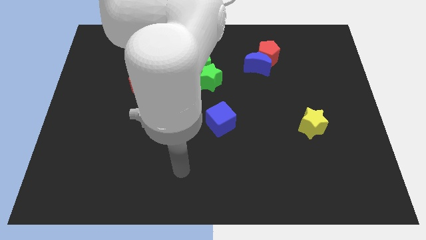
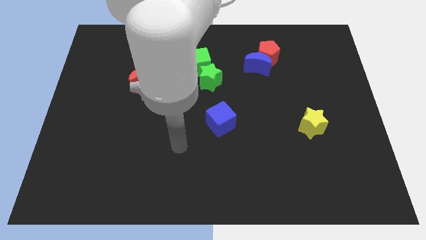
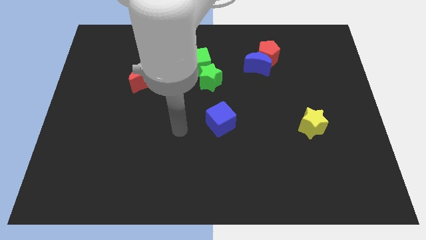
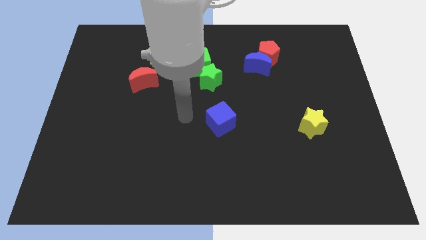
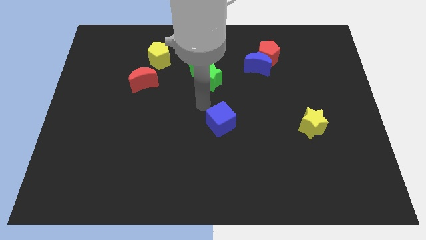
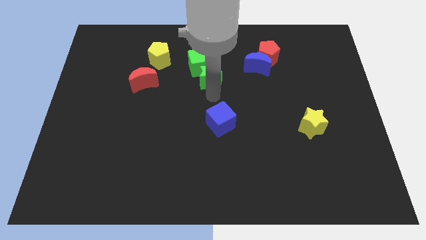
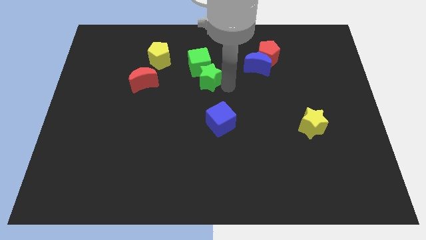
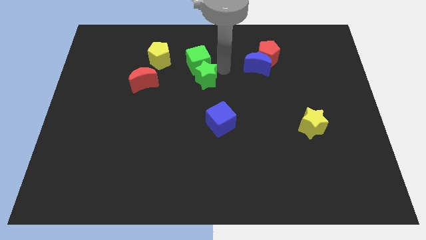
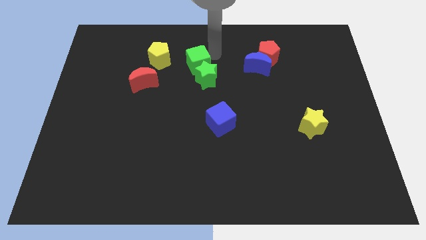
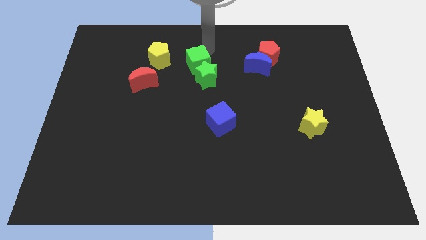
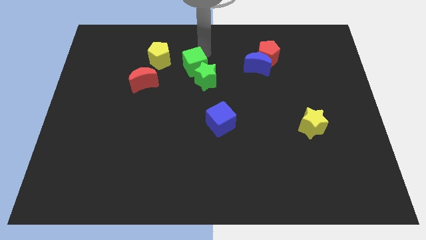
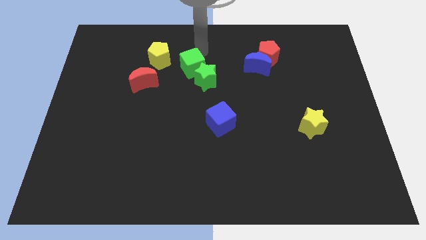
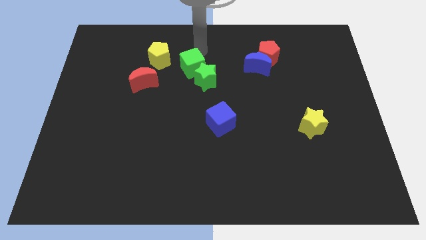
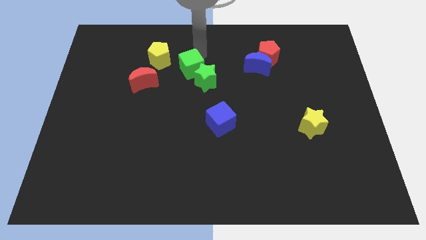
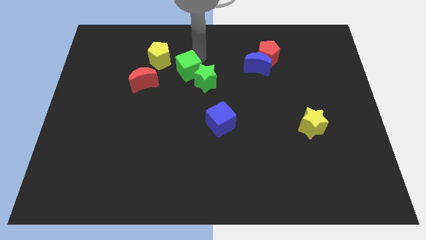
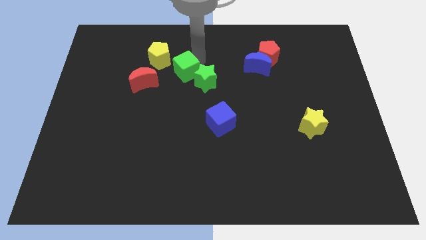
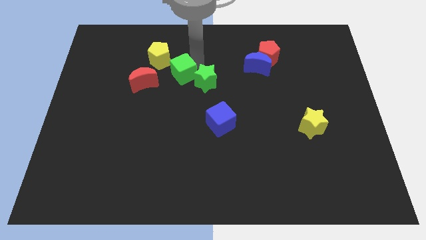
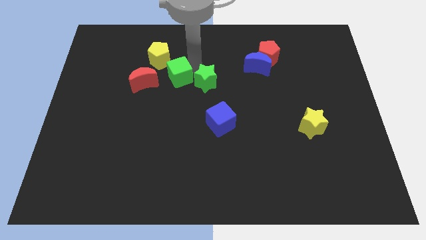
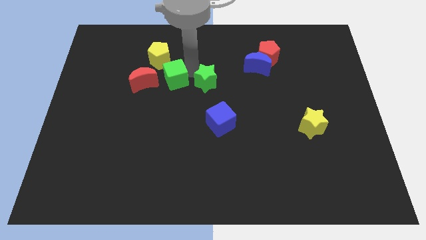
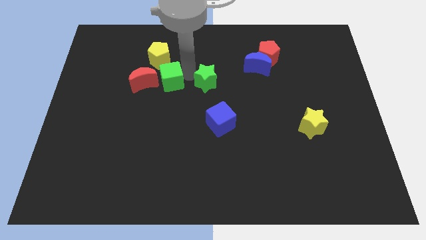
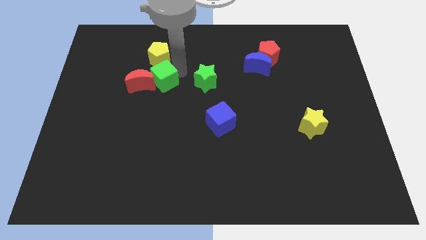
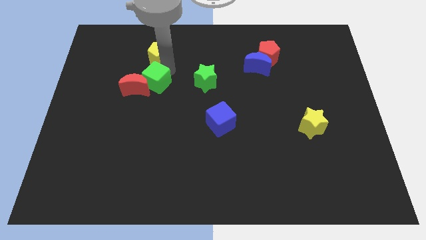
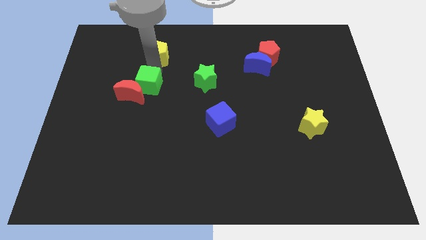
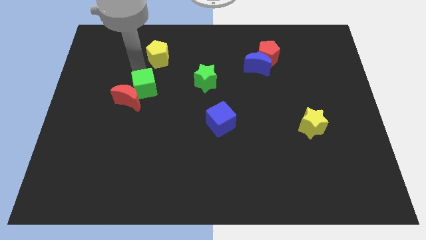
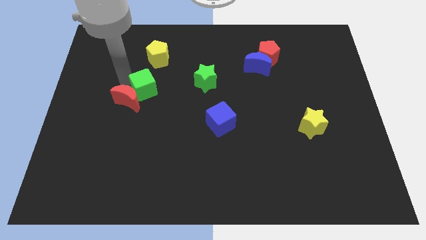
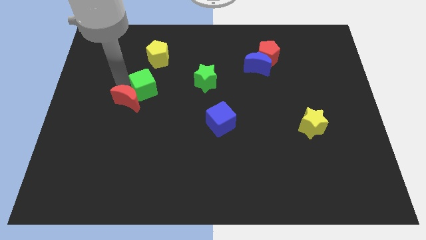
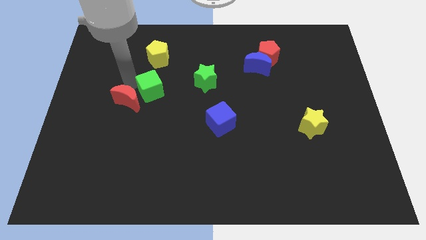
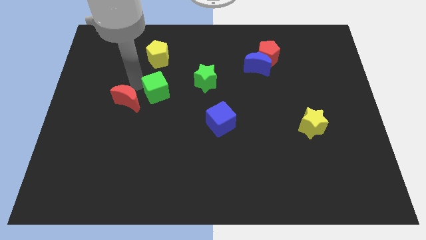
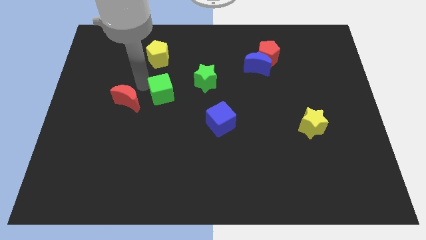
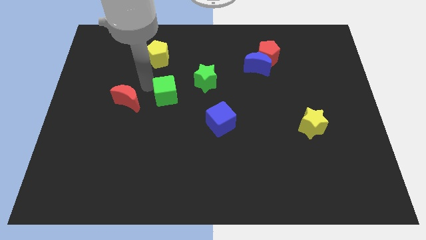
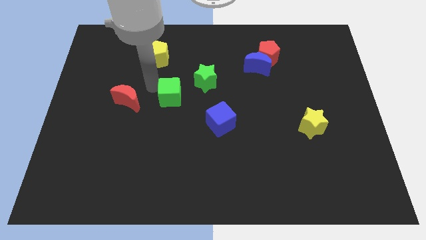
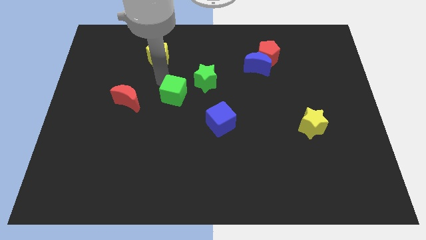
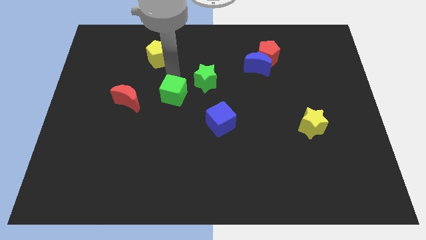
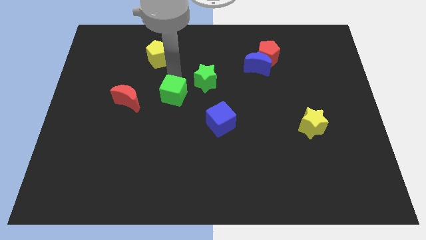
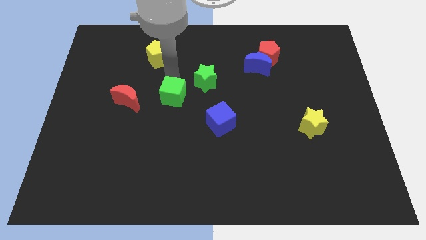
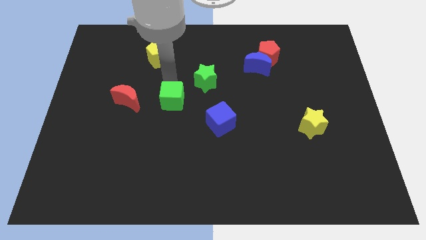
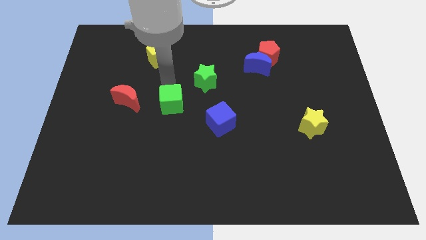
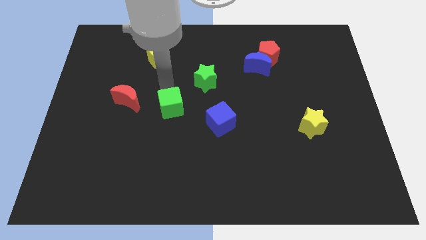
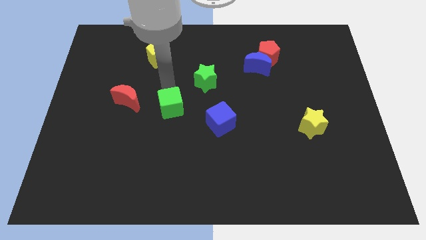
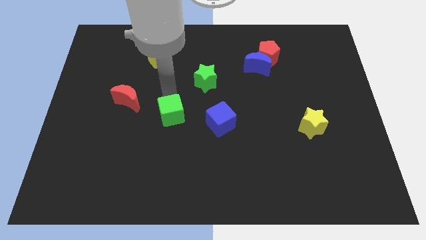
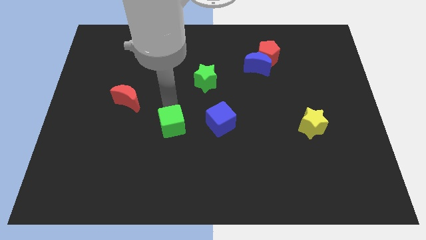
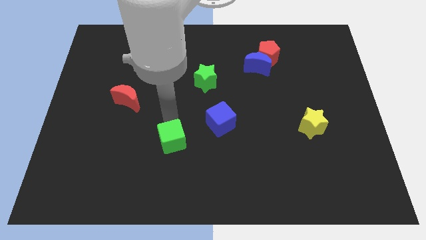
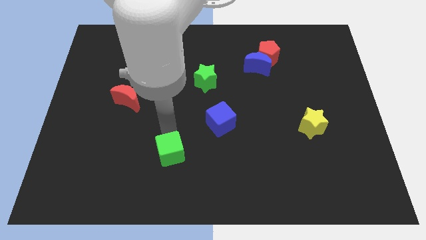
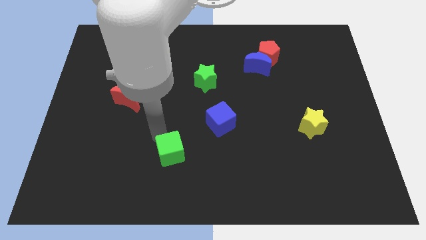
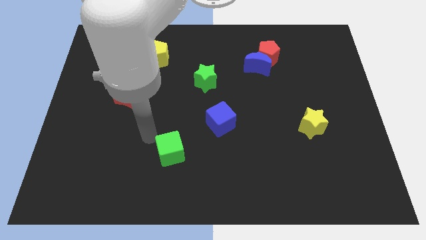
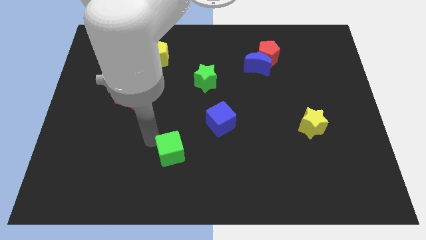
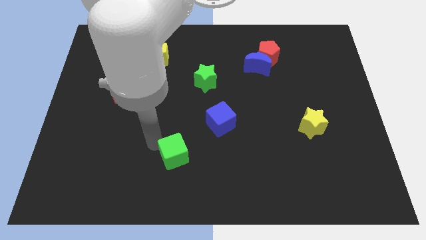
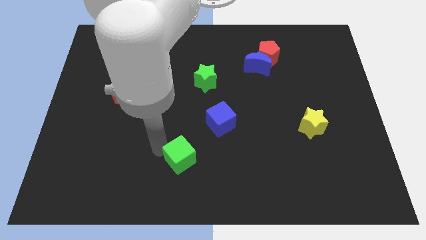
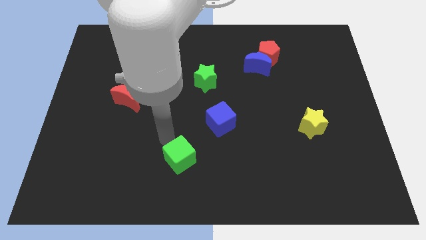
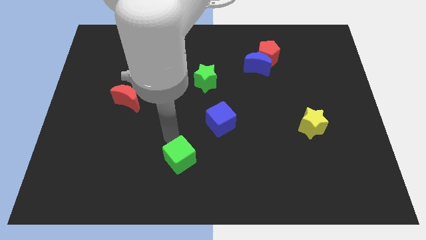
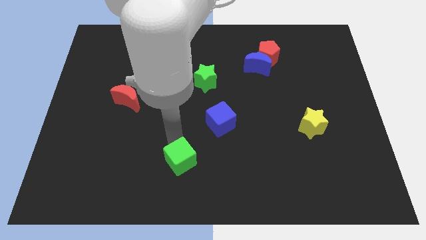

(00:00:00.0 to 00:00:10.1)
push the green cube to the bottom side
